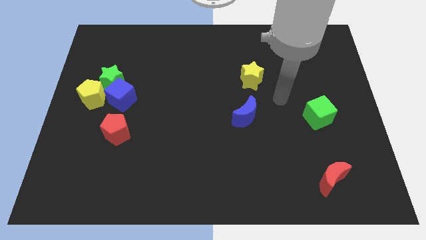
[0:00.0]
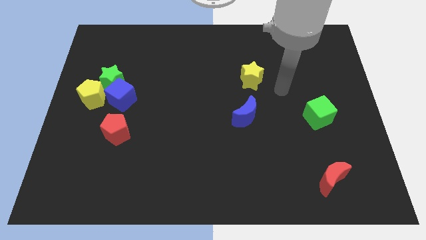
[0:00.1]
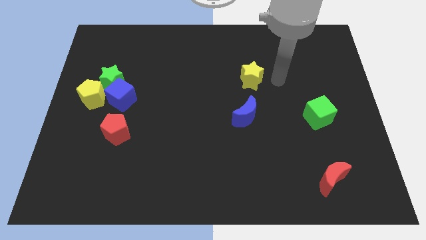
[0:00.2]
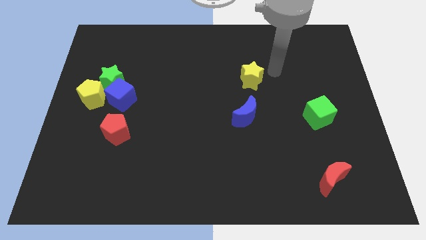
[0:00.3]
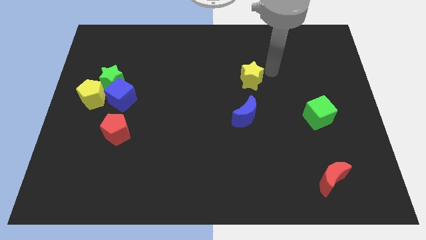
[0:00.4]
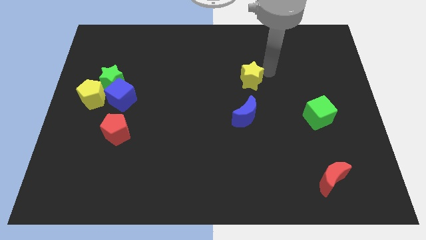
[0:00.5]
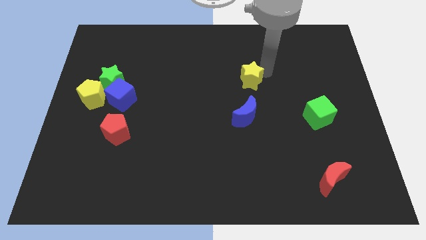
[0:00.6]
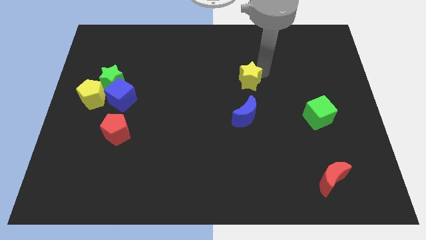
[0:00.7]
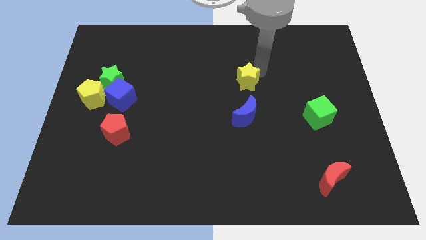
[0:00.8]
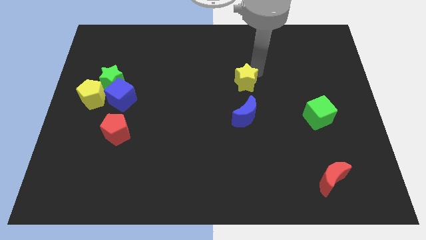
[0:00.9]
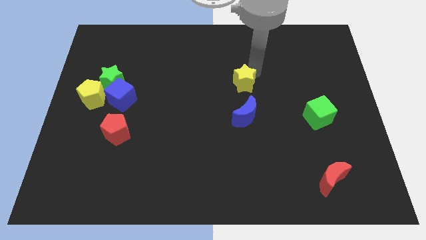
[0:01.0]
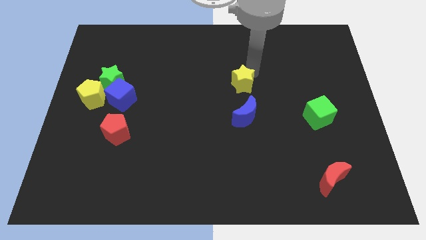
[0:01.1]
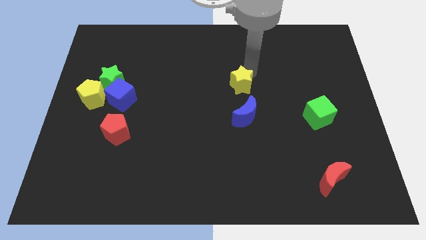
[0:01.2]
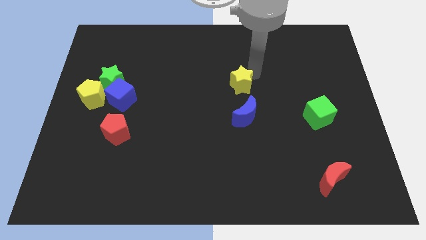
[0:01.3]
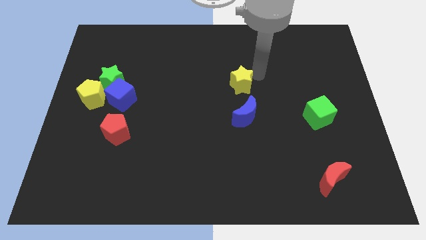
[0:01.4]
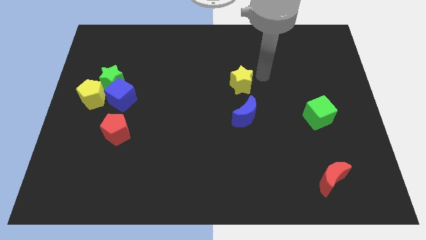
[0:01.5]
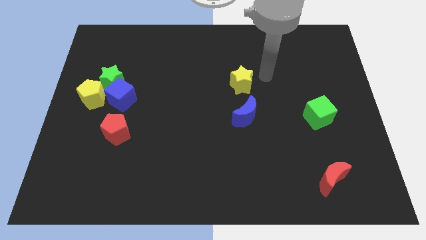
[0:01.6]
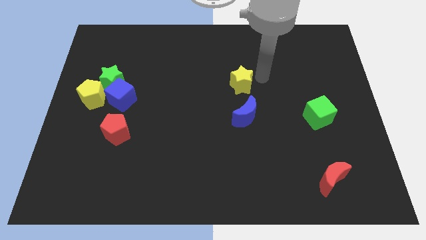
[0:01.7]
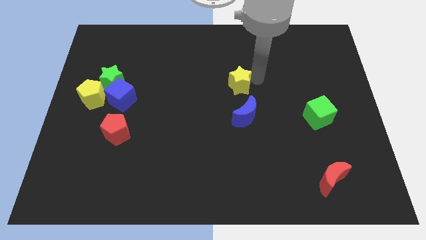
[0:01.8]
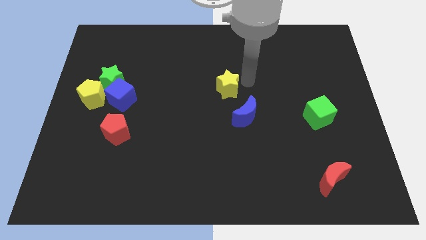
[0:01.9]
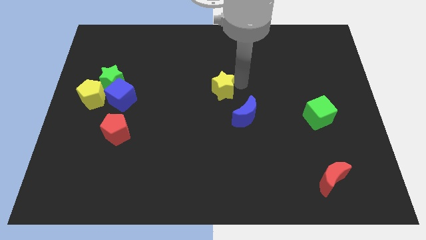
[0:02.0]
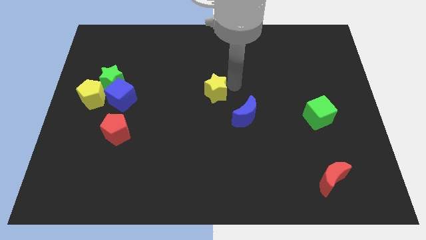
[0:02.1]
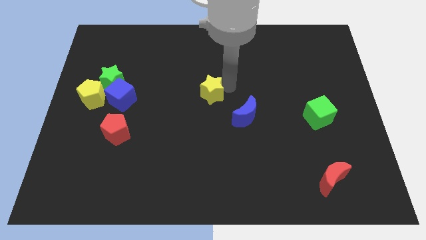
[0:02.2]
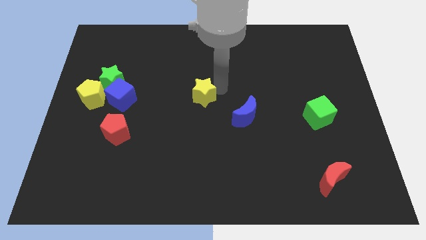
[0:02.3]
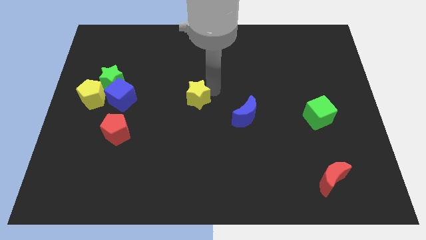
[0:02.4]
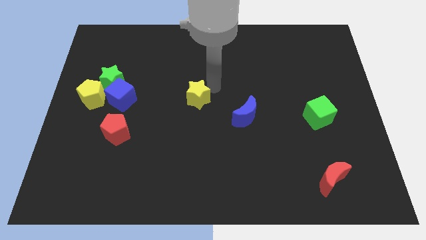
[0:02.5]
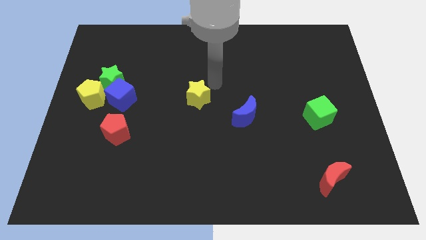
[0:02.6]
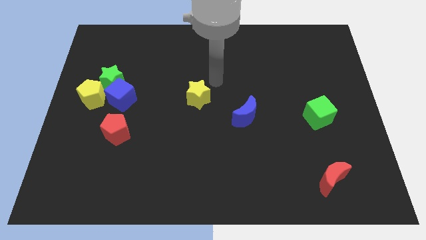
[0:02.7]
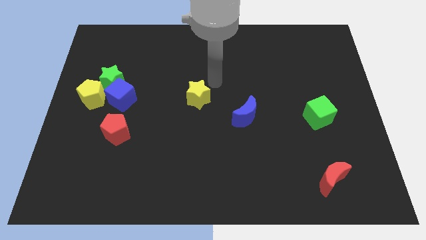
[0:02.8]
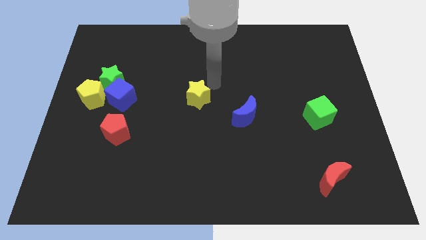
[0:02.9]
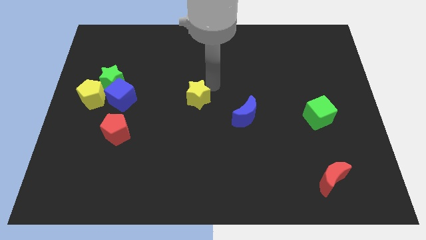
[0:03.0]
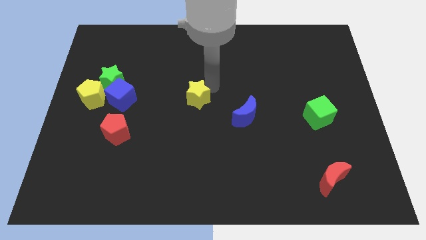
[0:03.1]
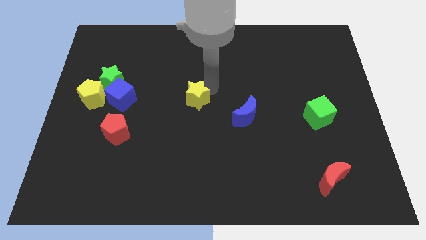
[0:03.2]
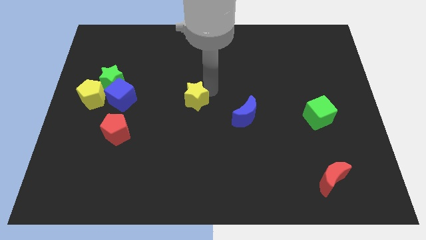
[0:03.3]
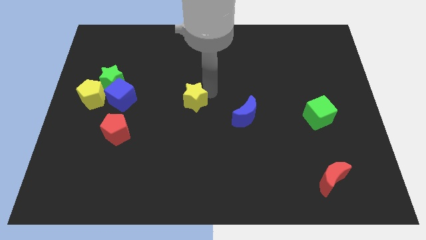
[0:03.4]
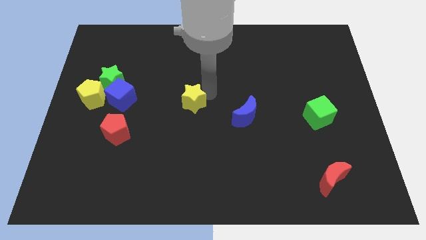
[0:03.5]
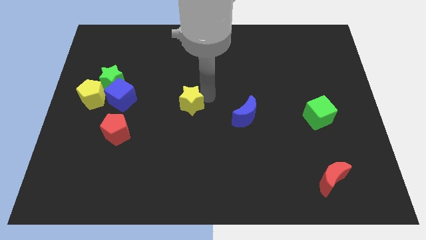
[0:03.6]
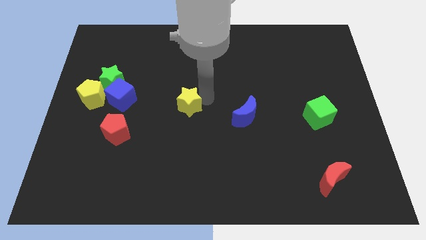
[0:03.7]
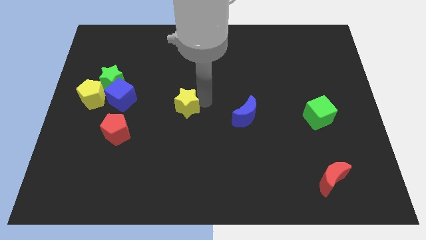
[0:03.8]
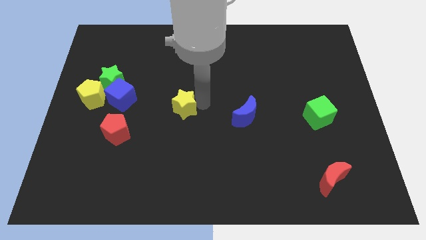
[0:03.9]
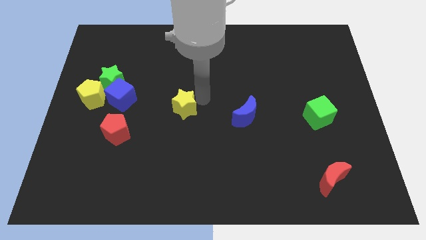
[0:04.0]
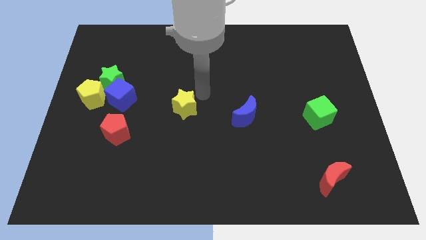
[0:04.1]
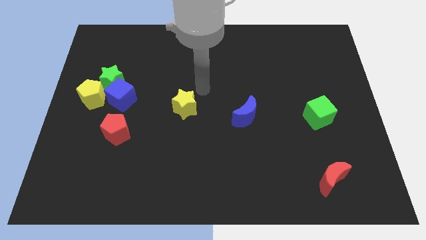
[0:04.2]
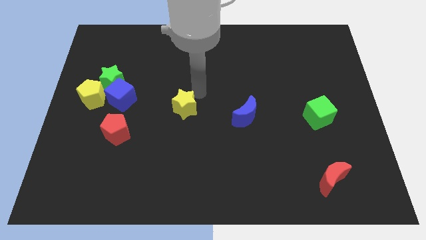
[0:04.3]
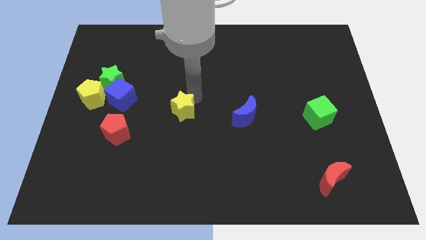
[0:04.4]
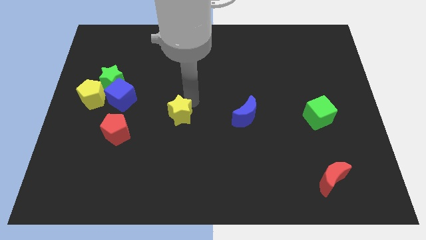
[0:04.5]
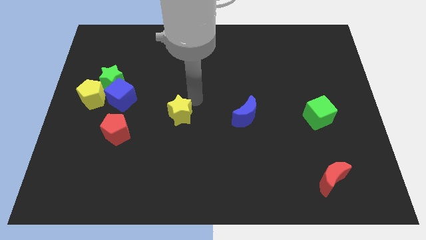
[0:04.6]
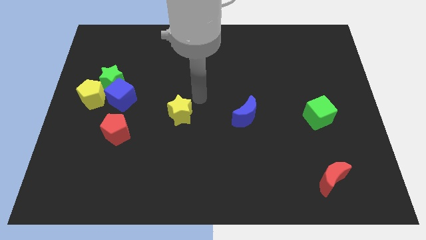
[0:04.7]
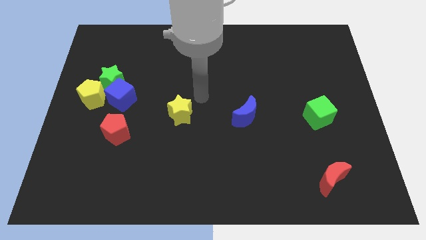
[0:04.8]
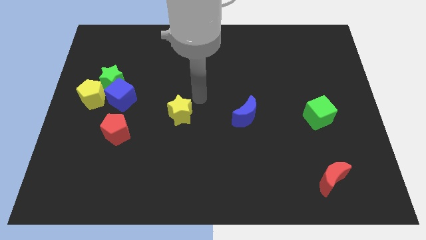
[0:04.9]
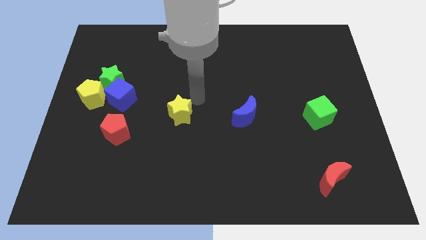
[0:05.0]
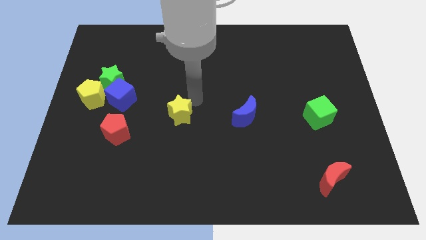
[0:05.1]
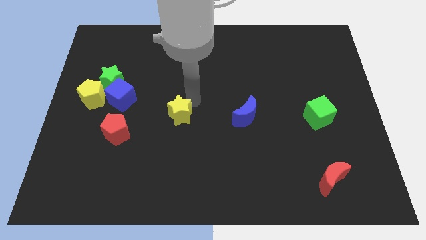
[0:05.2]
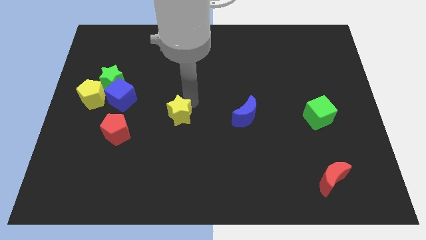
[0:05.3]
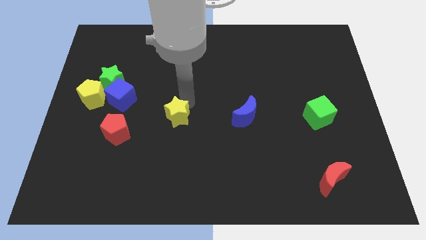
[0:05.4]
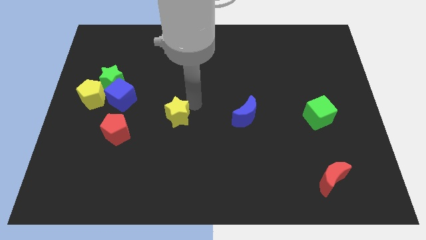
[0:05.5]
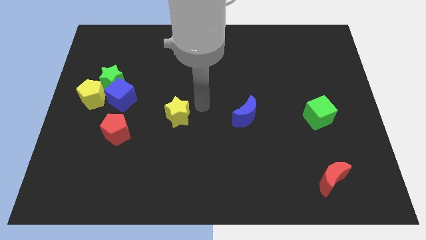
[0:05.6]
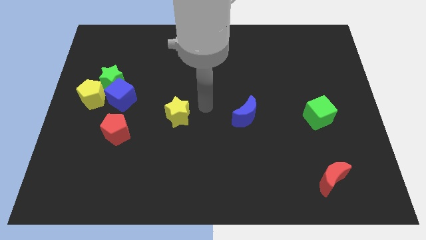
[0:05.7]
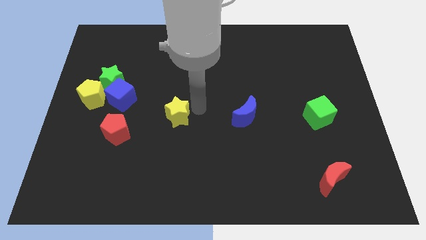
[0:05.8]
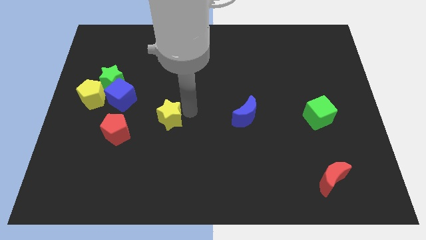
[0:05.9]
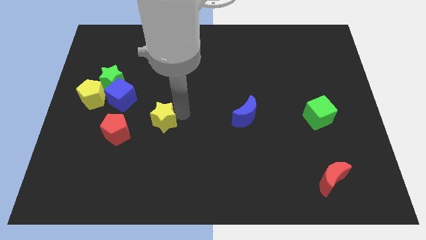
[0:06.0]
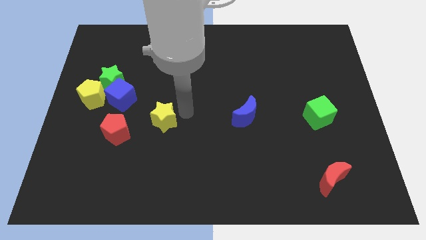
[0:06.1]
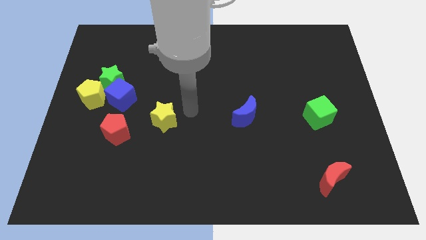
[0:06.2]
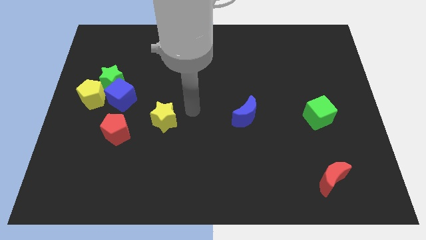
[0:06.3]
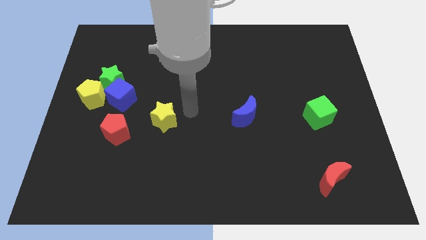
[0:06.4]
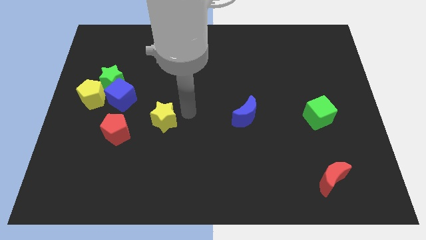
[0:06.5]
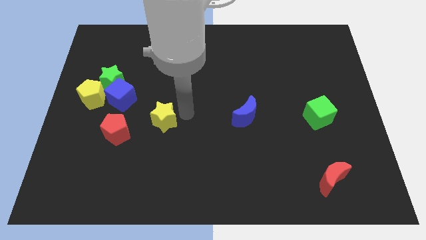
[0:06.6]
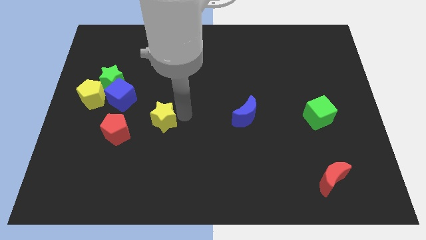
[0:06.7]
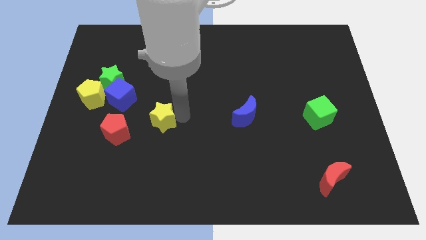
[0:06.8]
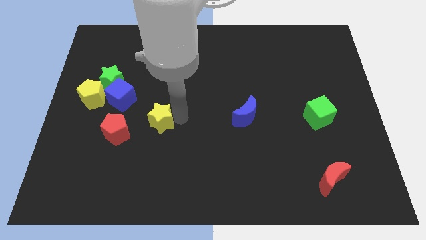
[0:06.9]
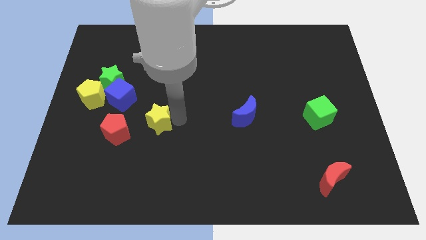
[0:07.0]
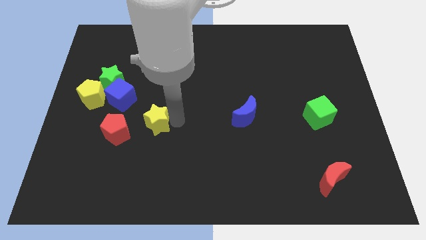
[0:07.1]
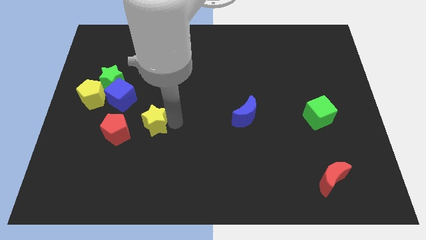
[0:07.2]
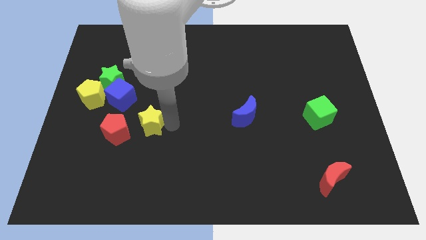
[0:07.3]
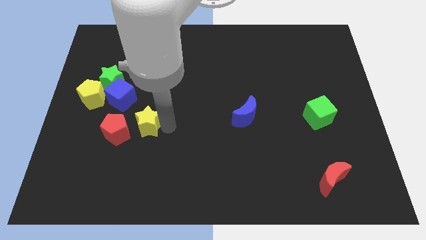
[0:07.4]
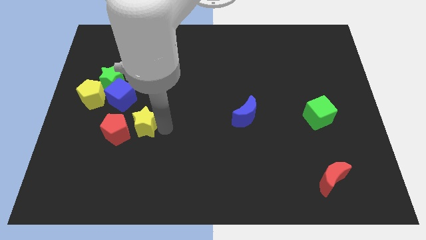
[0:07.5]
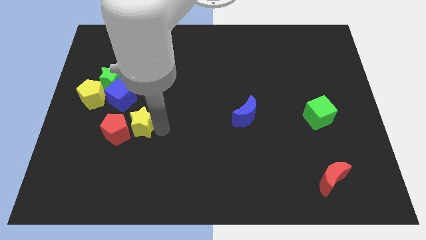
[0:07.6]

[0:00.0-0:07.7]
slide the yellow star towards the red pentagon
